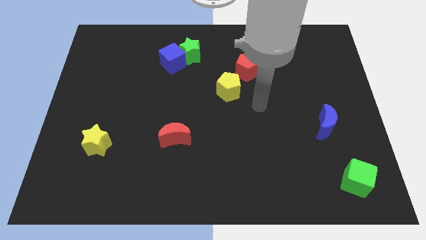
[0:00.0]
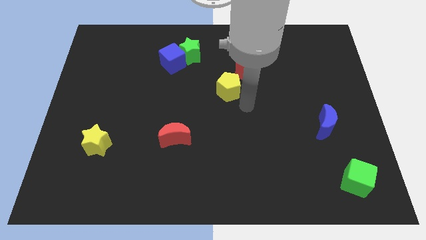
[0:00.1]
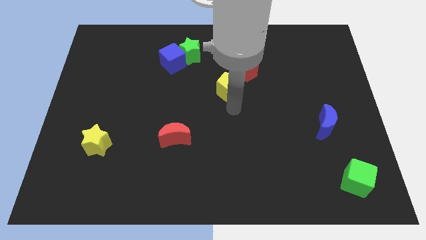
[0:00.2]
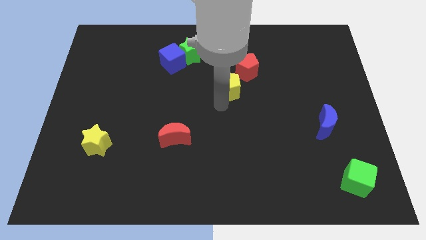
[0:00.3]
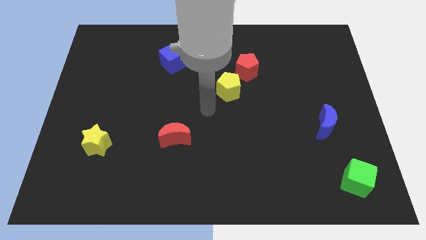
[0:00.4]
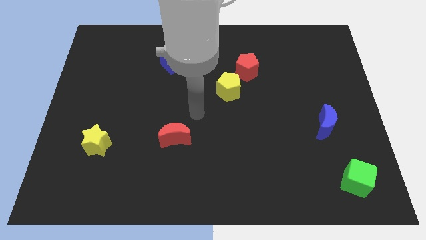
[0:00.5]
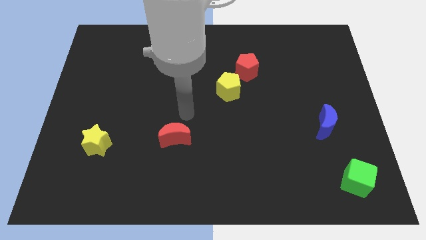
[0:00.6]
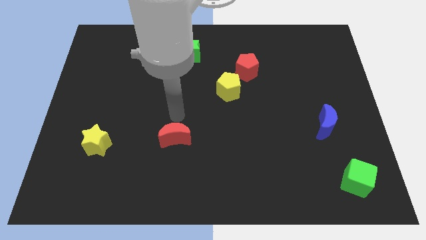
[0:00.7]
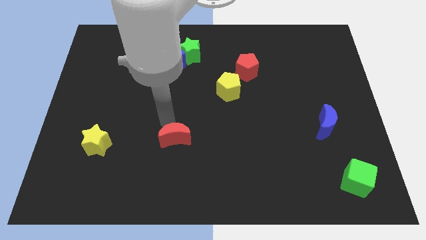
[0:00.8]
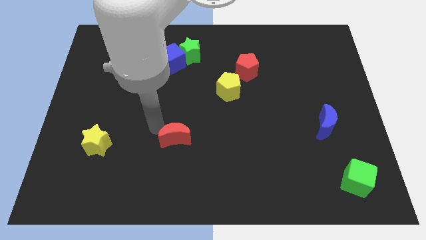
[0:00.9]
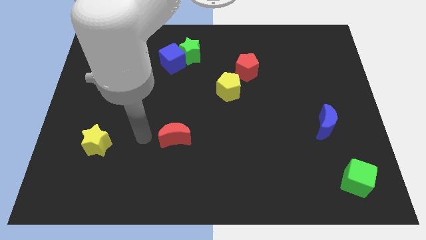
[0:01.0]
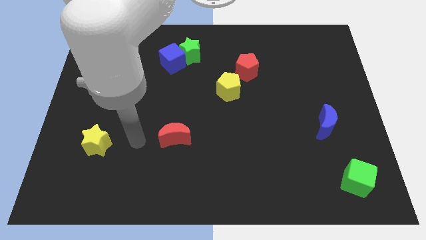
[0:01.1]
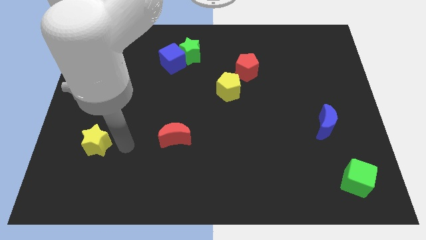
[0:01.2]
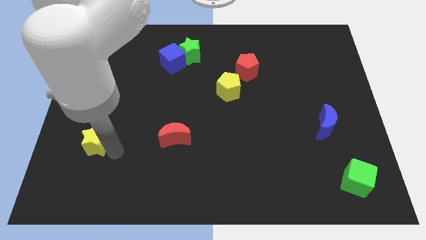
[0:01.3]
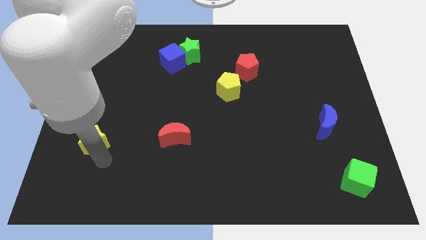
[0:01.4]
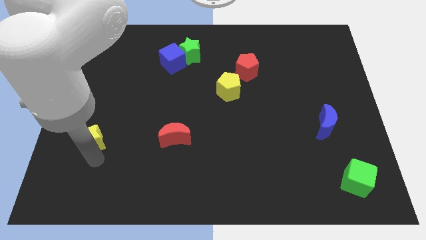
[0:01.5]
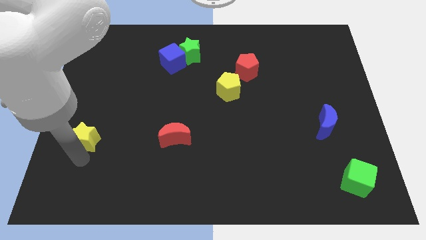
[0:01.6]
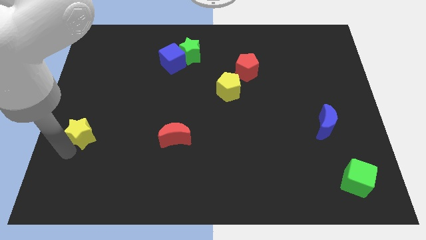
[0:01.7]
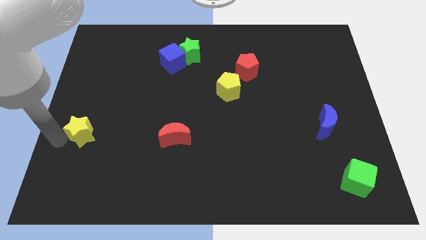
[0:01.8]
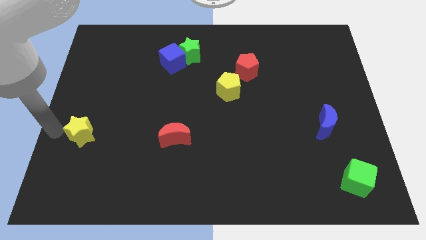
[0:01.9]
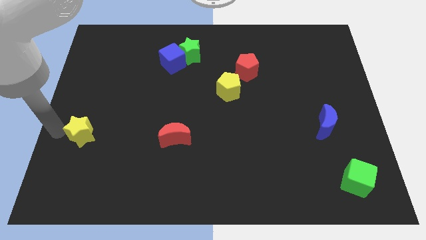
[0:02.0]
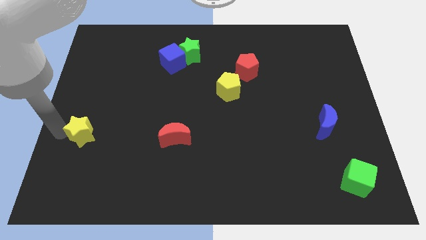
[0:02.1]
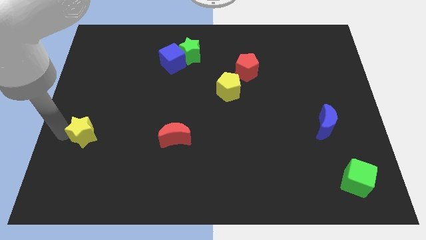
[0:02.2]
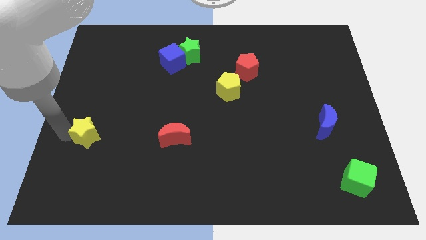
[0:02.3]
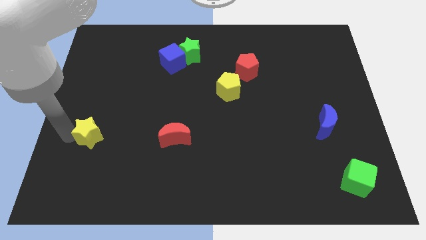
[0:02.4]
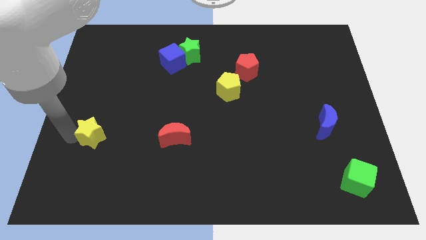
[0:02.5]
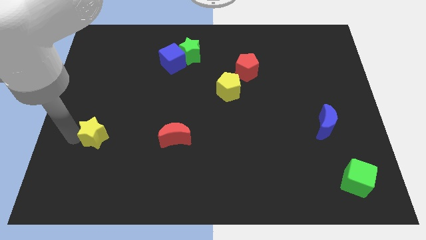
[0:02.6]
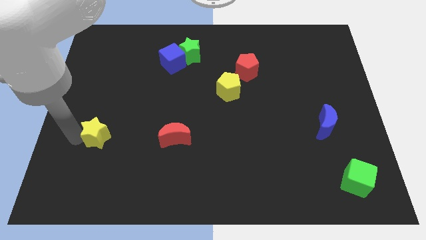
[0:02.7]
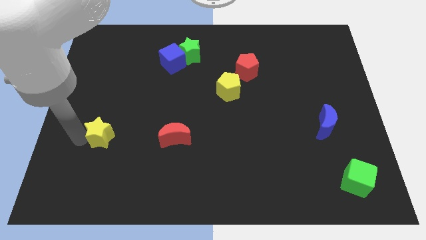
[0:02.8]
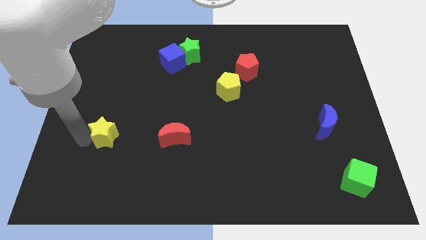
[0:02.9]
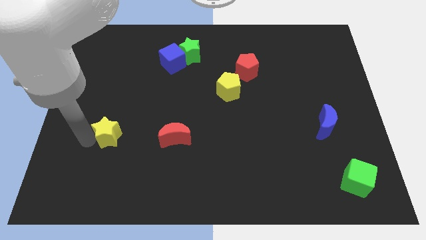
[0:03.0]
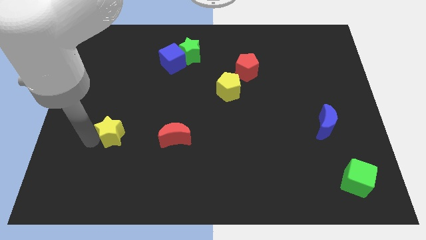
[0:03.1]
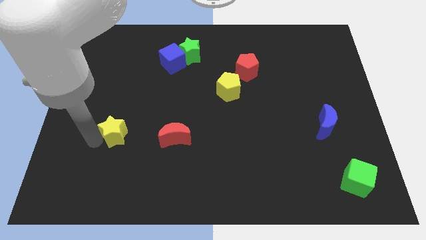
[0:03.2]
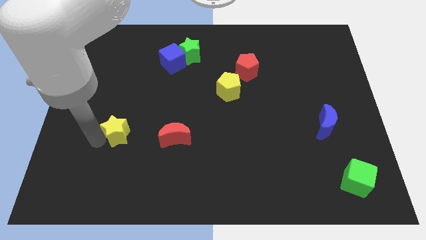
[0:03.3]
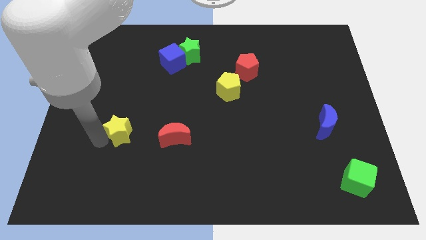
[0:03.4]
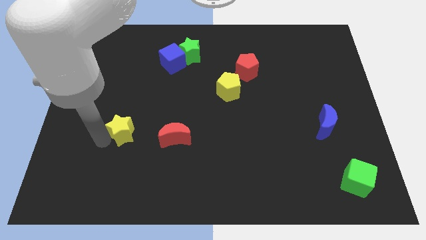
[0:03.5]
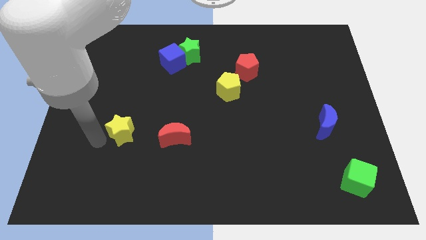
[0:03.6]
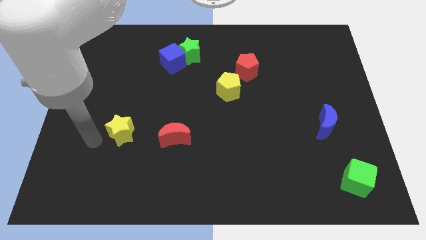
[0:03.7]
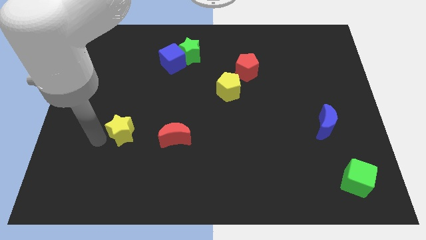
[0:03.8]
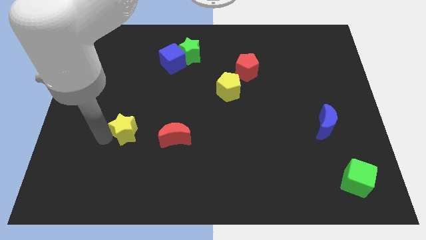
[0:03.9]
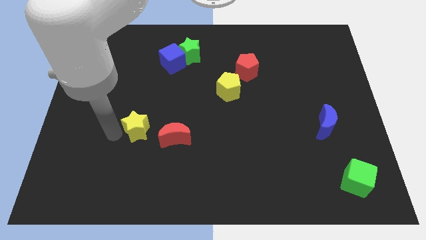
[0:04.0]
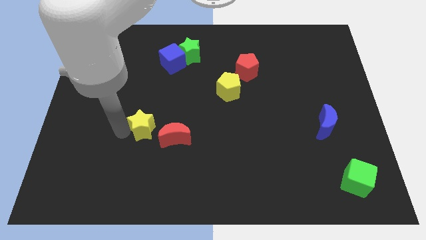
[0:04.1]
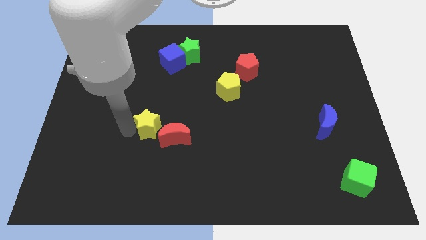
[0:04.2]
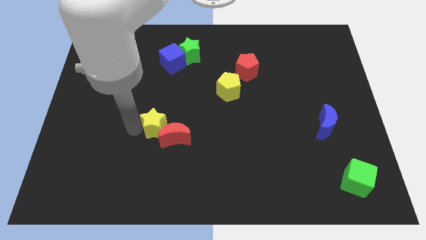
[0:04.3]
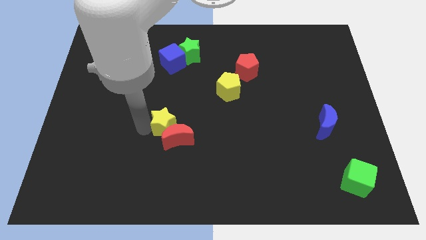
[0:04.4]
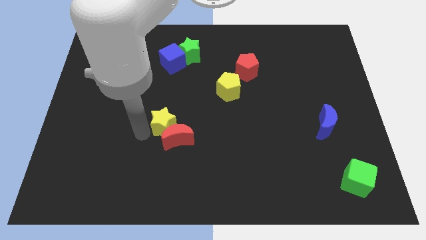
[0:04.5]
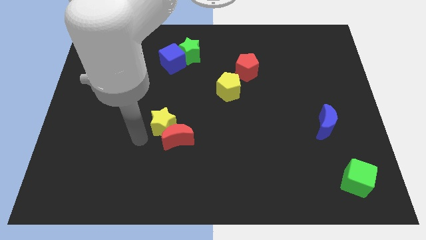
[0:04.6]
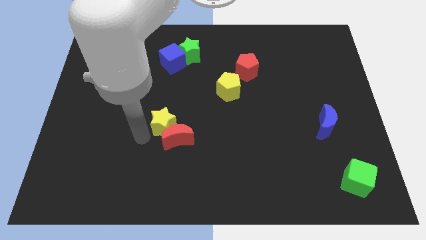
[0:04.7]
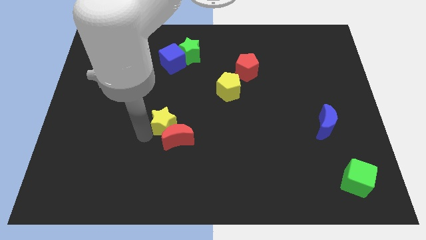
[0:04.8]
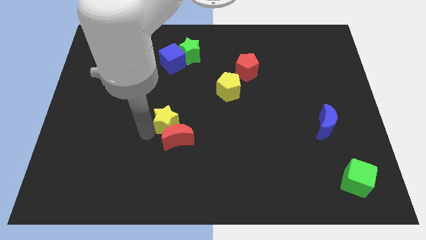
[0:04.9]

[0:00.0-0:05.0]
put the yellow star to the center of the board

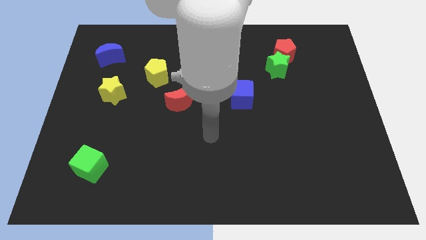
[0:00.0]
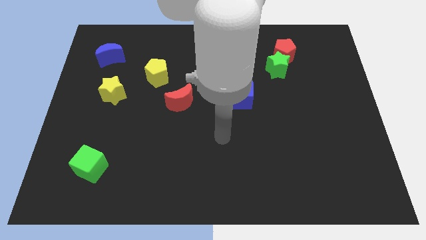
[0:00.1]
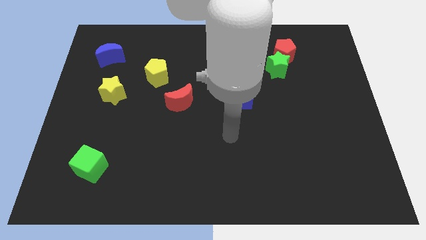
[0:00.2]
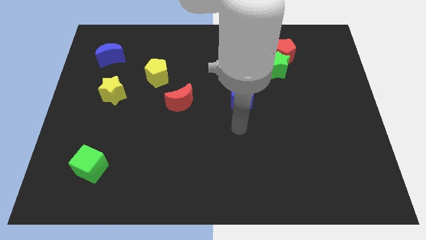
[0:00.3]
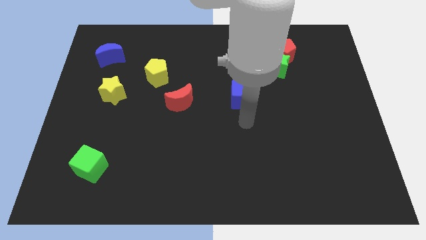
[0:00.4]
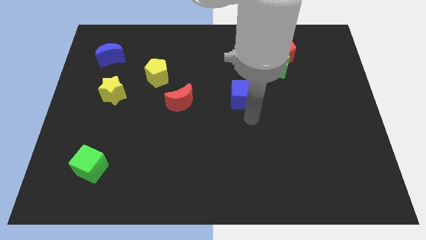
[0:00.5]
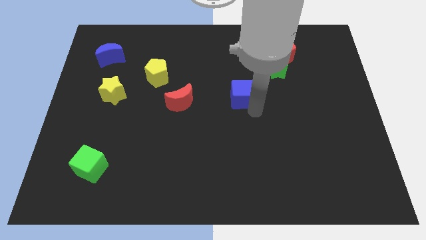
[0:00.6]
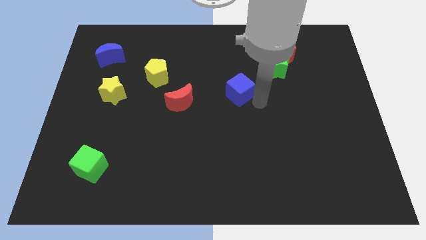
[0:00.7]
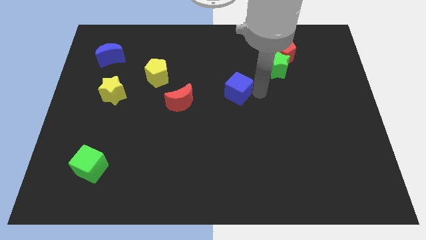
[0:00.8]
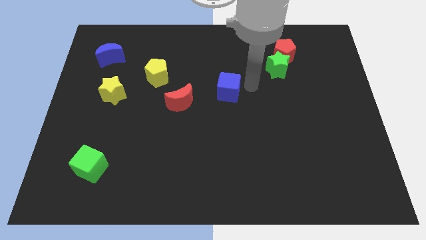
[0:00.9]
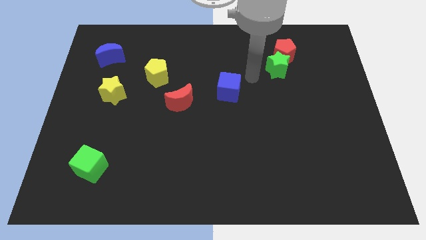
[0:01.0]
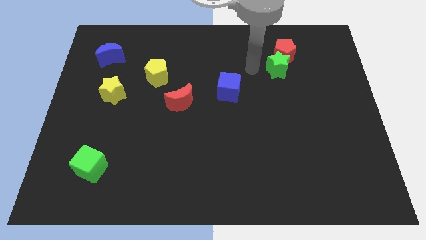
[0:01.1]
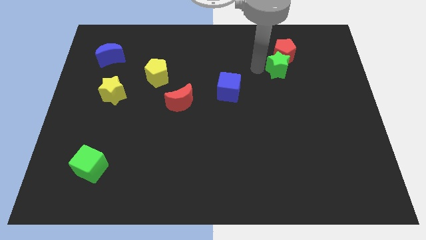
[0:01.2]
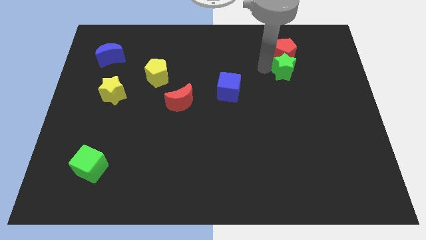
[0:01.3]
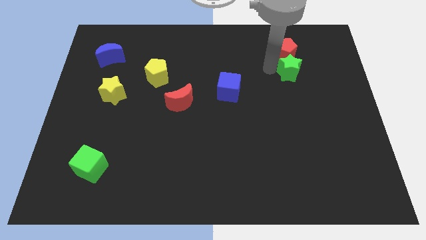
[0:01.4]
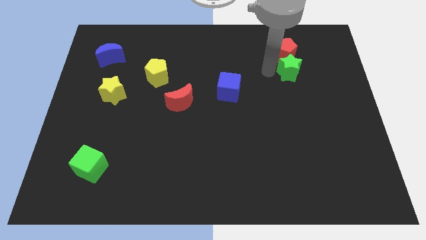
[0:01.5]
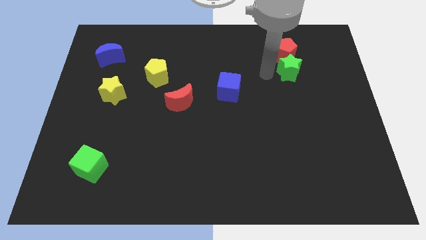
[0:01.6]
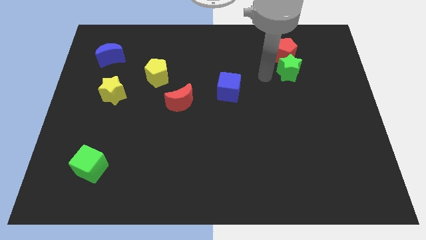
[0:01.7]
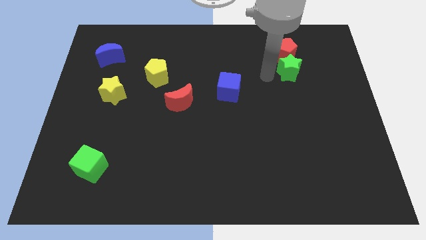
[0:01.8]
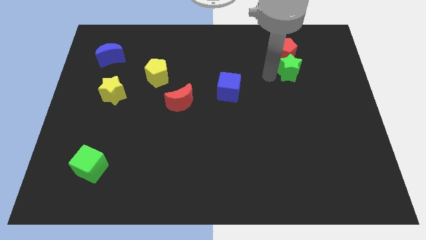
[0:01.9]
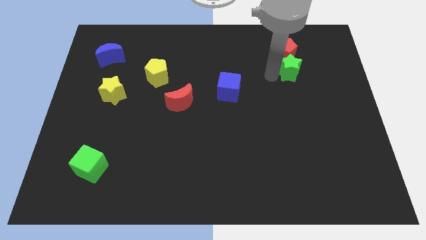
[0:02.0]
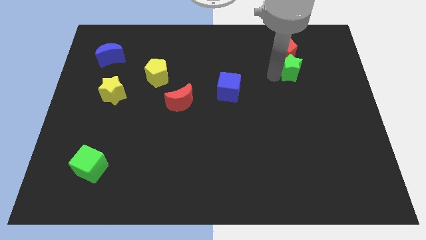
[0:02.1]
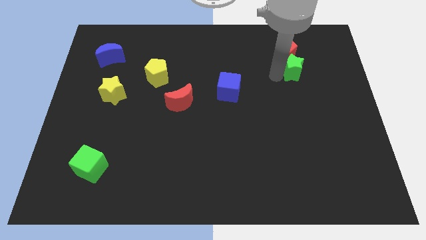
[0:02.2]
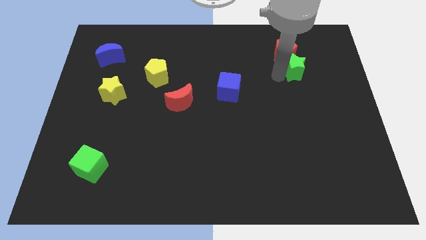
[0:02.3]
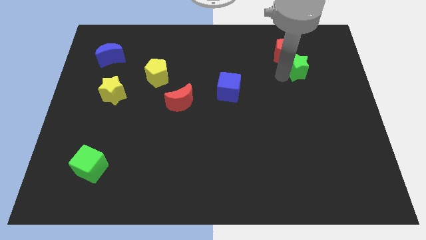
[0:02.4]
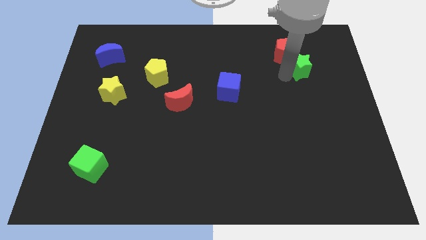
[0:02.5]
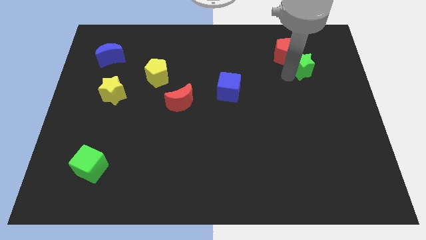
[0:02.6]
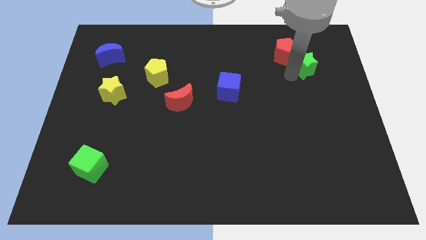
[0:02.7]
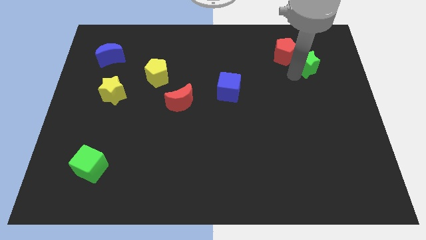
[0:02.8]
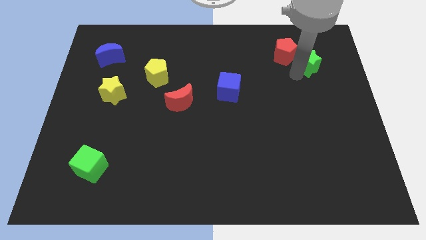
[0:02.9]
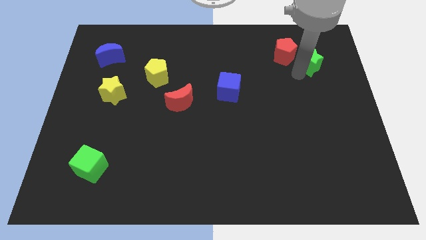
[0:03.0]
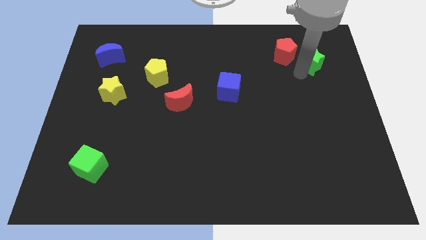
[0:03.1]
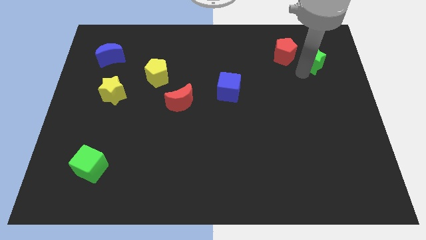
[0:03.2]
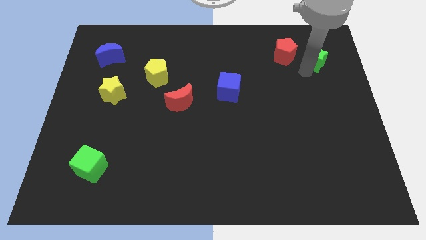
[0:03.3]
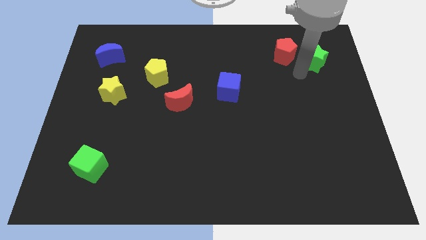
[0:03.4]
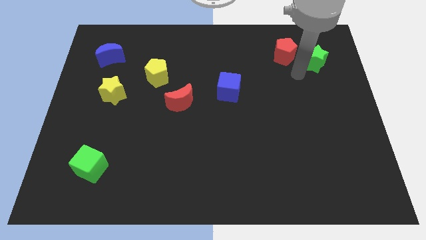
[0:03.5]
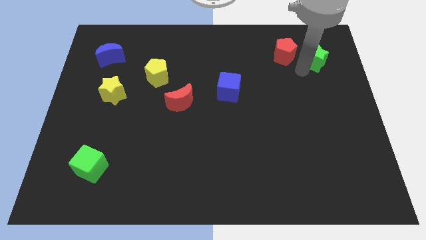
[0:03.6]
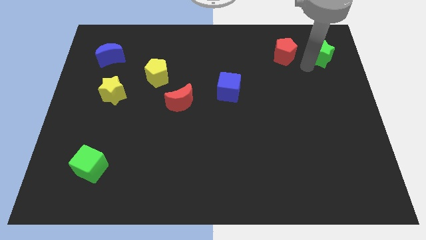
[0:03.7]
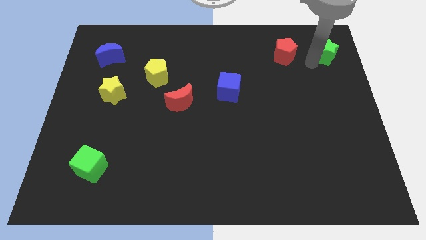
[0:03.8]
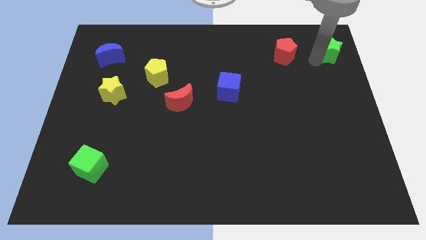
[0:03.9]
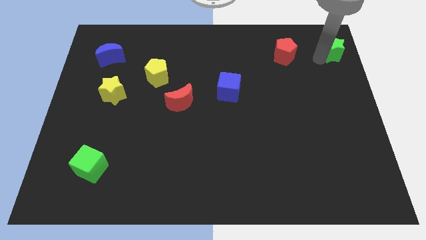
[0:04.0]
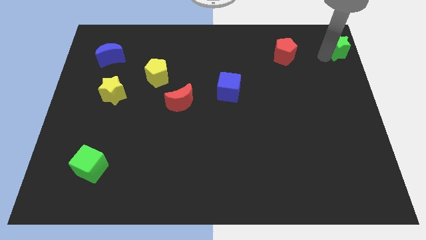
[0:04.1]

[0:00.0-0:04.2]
move the green star to the top right of the board
